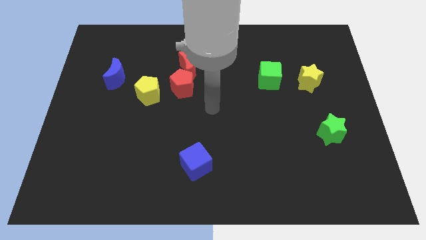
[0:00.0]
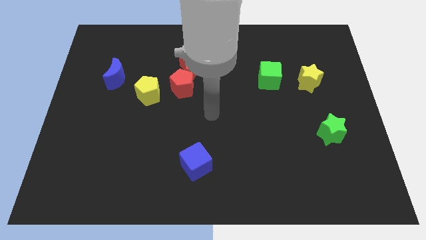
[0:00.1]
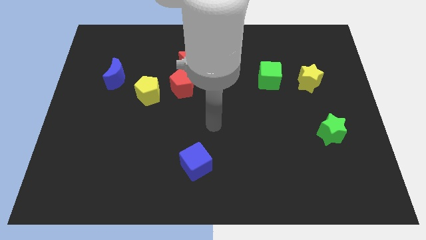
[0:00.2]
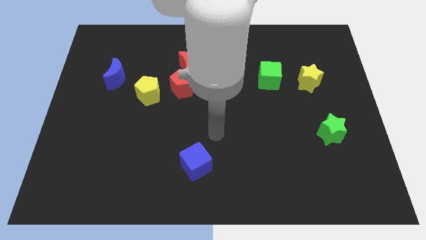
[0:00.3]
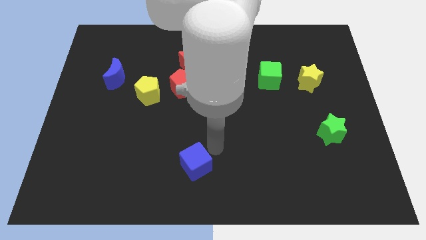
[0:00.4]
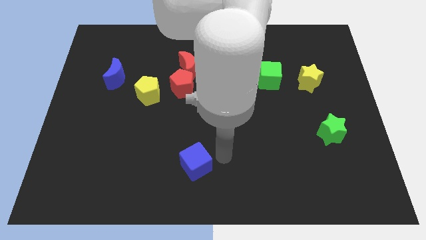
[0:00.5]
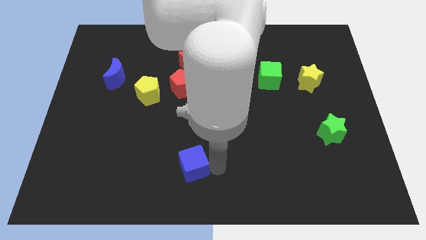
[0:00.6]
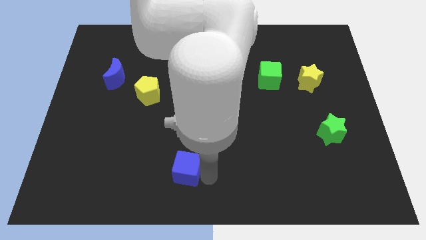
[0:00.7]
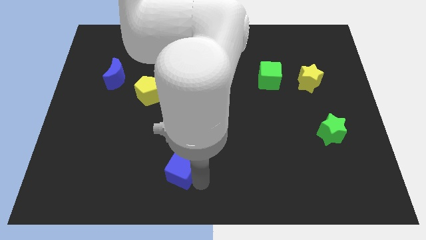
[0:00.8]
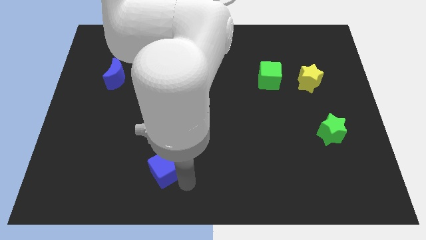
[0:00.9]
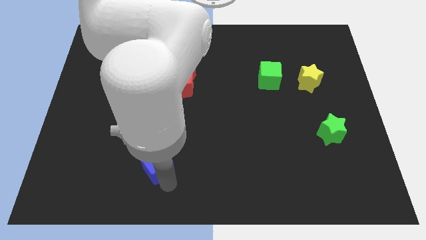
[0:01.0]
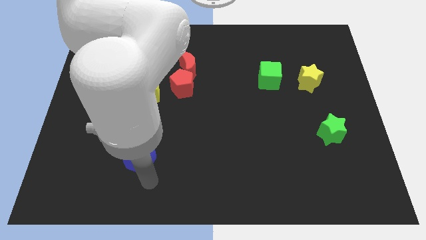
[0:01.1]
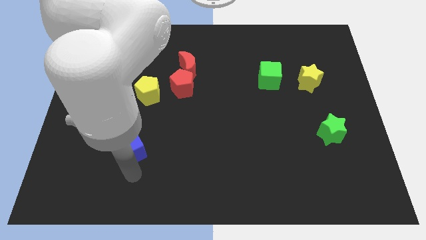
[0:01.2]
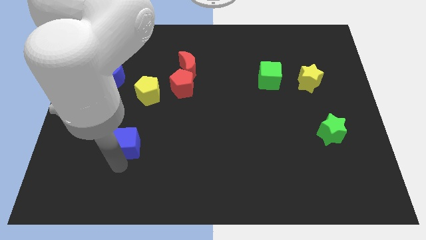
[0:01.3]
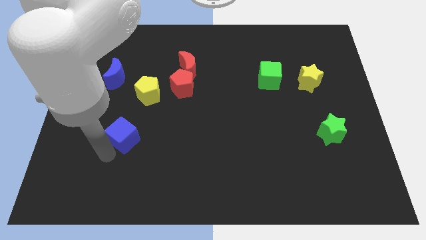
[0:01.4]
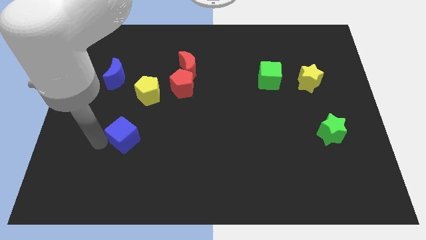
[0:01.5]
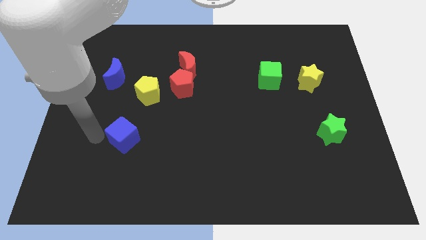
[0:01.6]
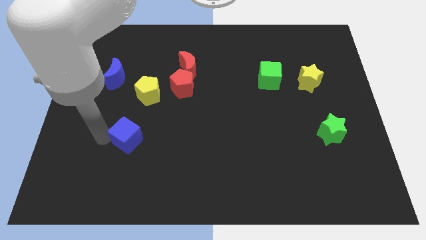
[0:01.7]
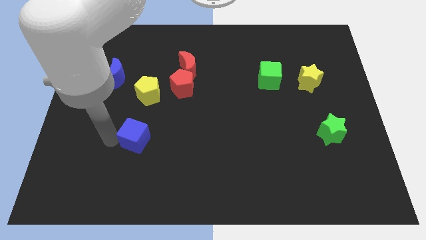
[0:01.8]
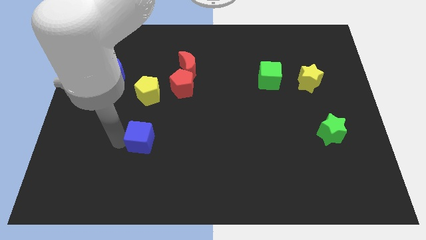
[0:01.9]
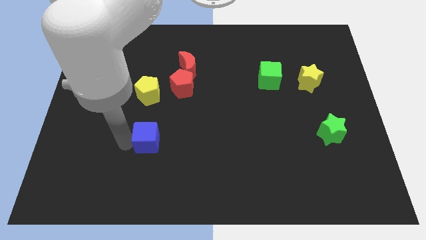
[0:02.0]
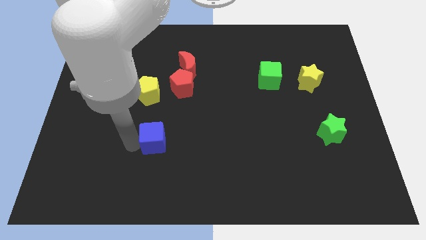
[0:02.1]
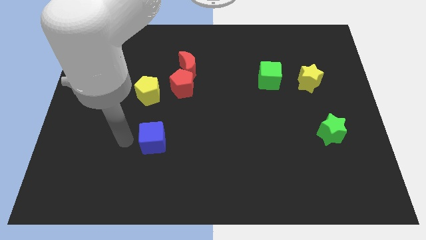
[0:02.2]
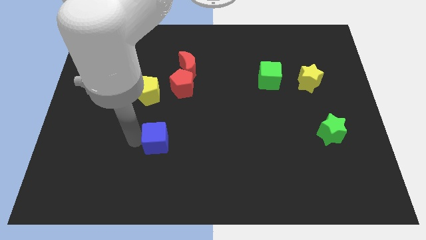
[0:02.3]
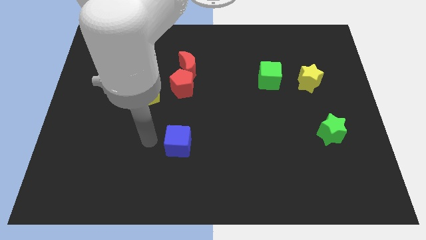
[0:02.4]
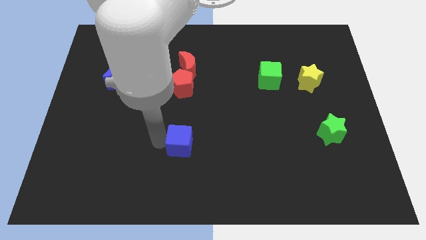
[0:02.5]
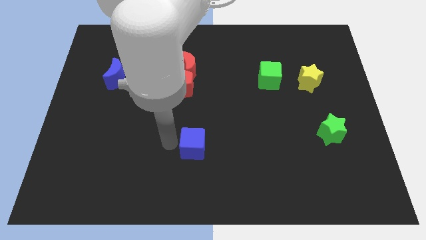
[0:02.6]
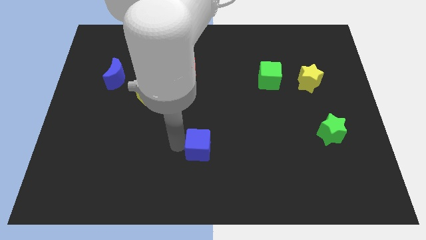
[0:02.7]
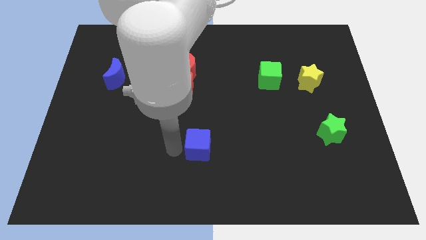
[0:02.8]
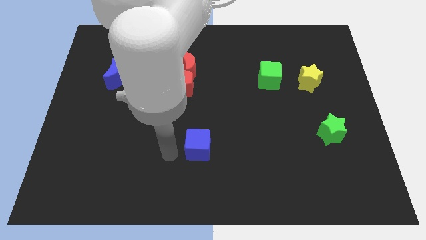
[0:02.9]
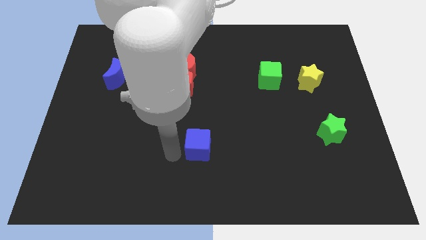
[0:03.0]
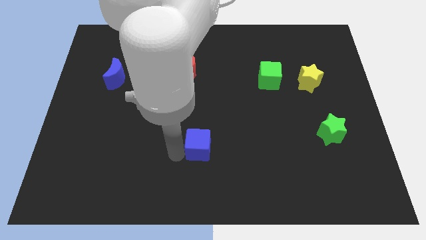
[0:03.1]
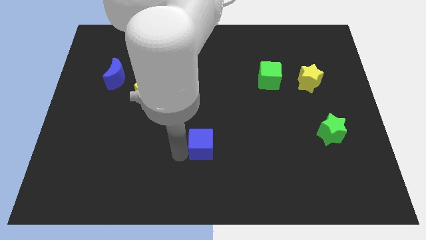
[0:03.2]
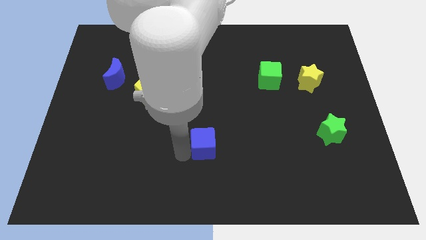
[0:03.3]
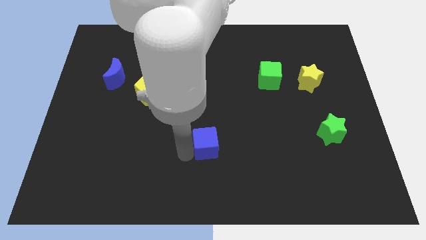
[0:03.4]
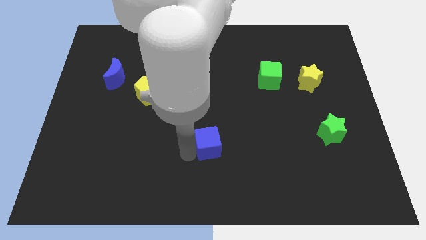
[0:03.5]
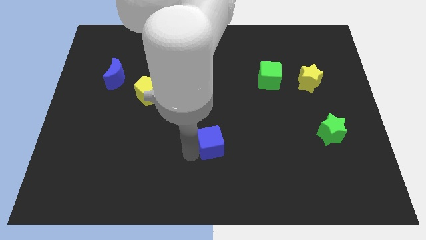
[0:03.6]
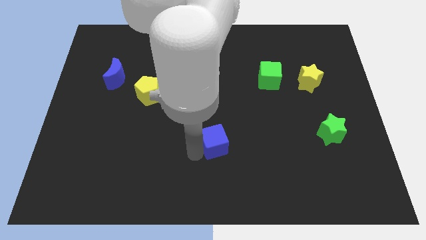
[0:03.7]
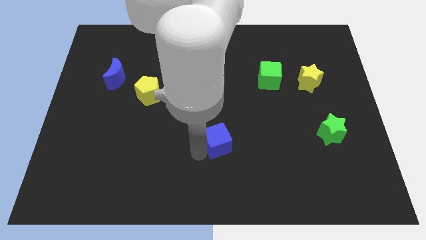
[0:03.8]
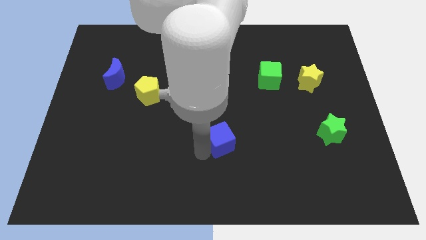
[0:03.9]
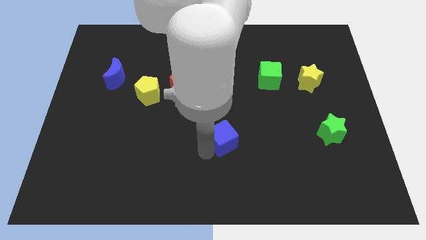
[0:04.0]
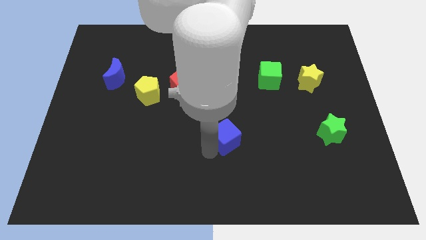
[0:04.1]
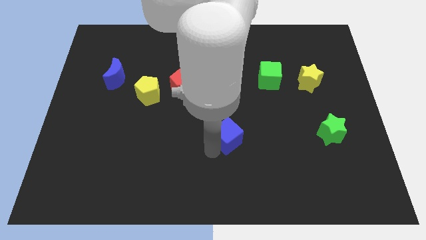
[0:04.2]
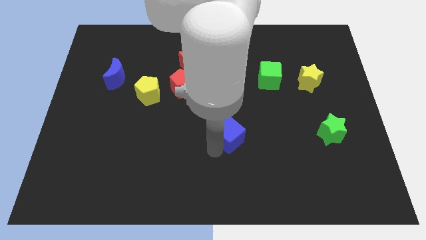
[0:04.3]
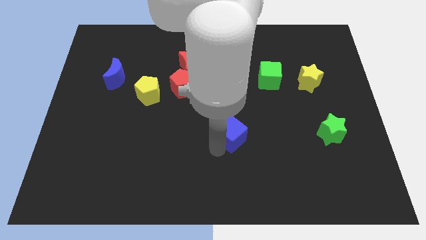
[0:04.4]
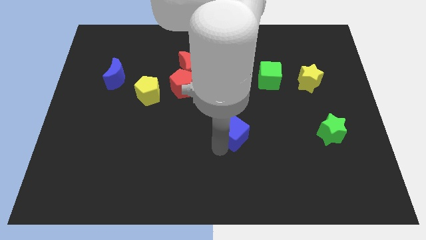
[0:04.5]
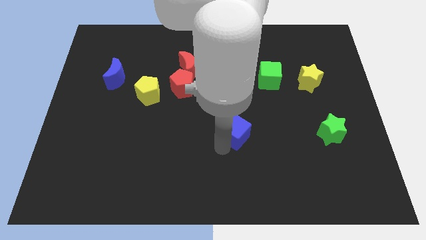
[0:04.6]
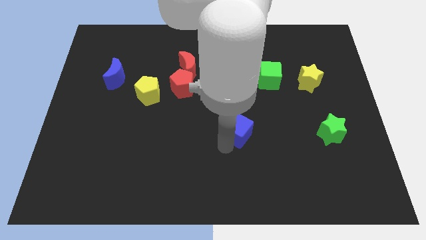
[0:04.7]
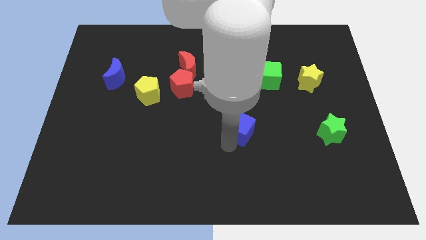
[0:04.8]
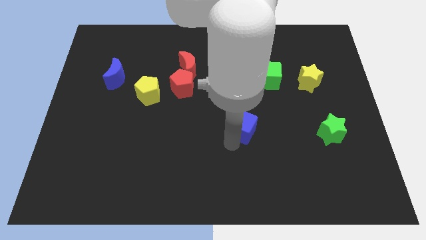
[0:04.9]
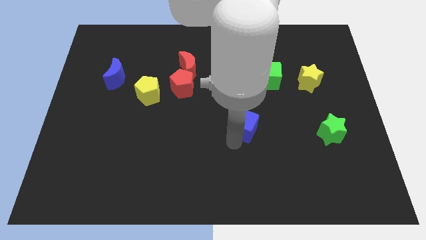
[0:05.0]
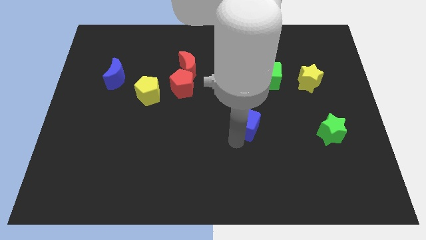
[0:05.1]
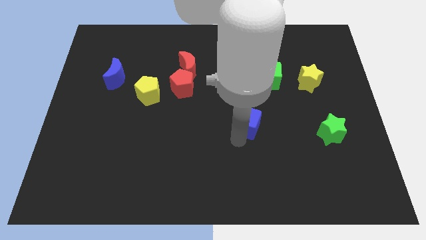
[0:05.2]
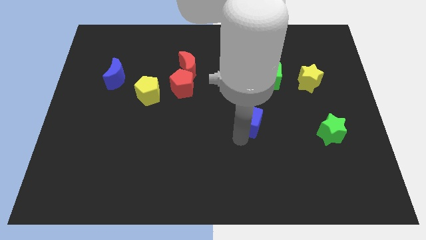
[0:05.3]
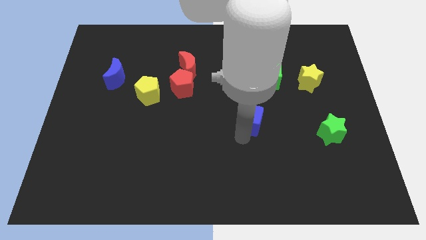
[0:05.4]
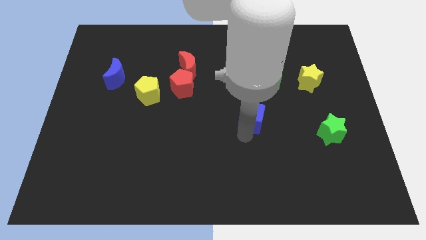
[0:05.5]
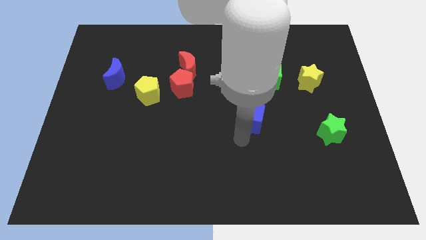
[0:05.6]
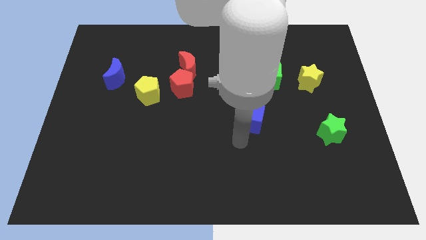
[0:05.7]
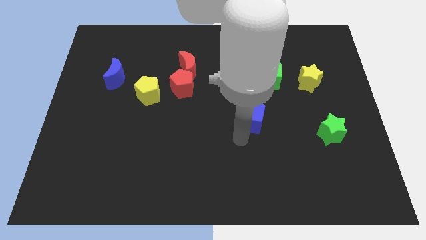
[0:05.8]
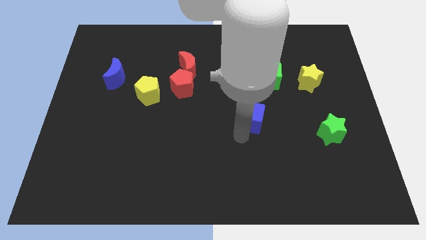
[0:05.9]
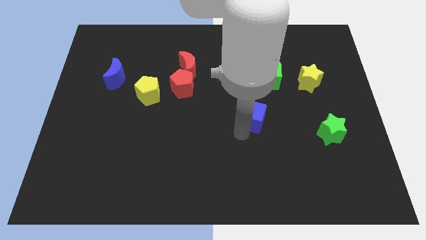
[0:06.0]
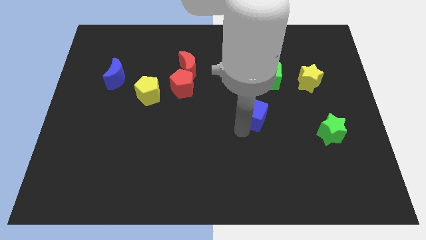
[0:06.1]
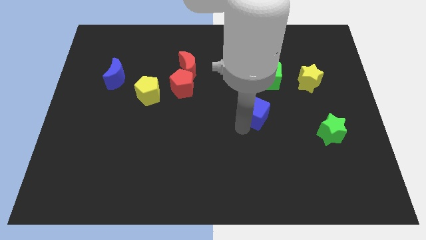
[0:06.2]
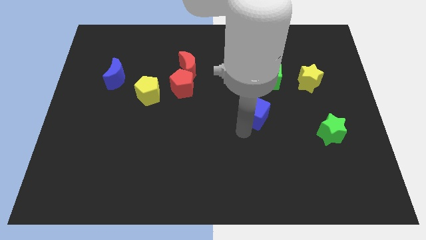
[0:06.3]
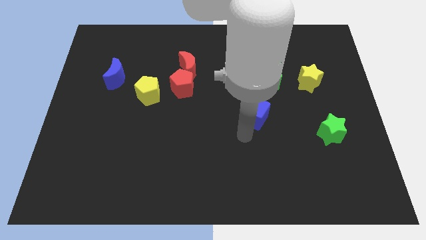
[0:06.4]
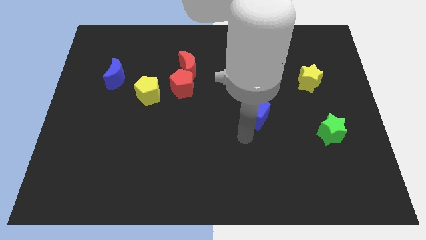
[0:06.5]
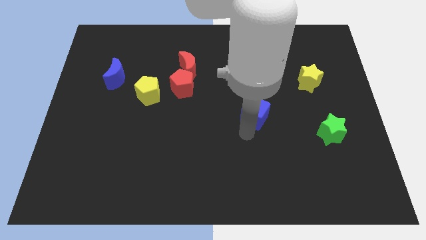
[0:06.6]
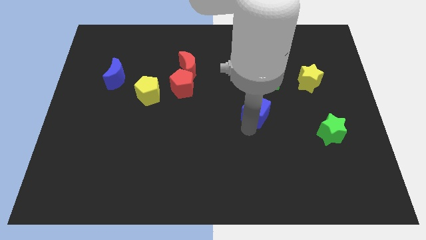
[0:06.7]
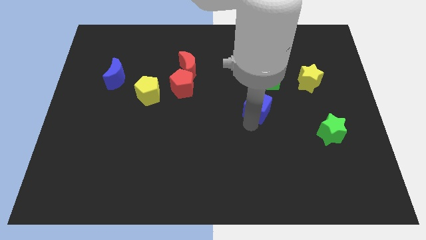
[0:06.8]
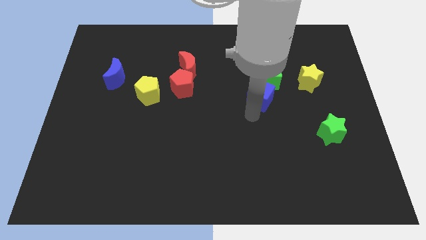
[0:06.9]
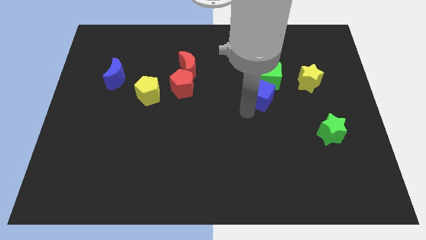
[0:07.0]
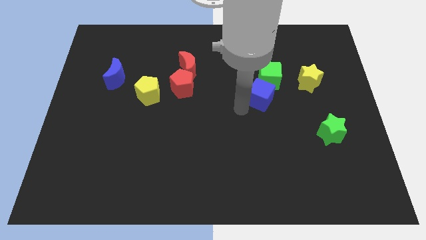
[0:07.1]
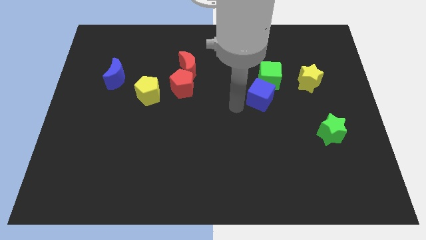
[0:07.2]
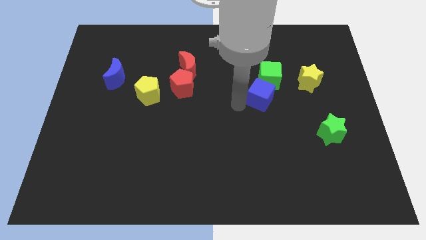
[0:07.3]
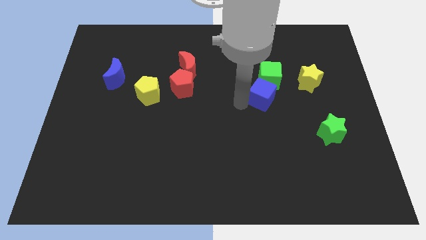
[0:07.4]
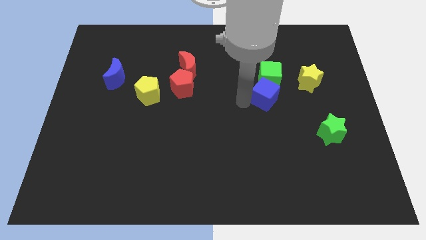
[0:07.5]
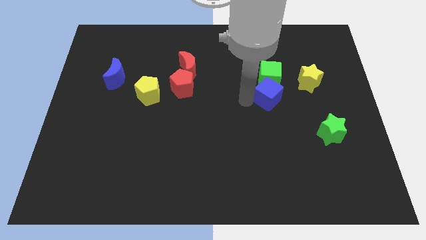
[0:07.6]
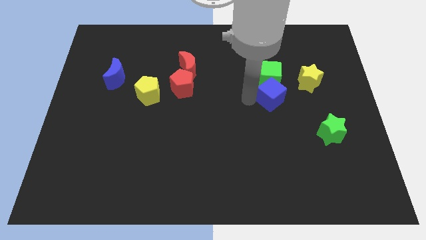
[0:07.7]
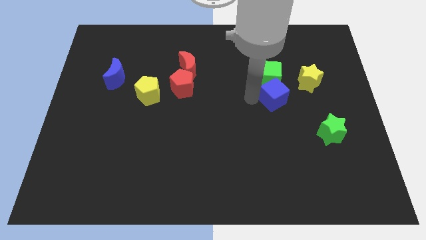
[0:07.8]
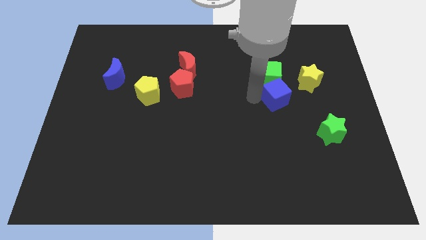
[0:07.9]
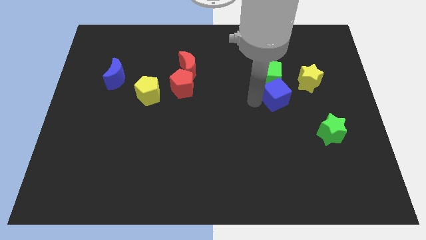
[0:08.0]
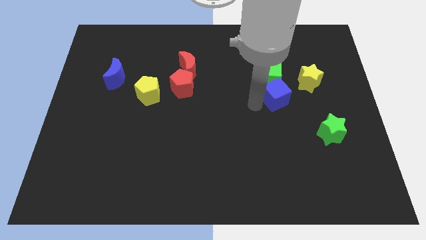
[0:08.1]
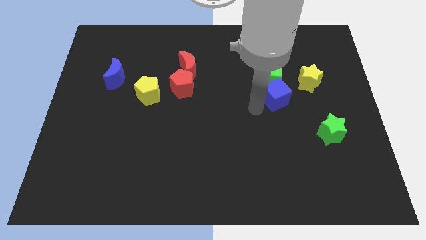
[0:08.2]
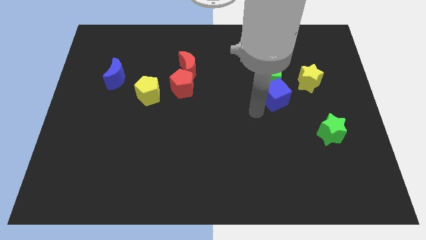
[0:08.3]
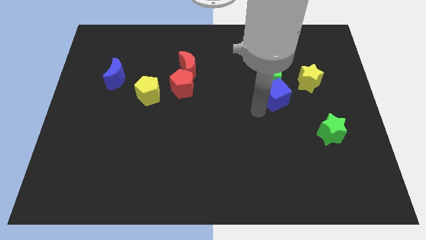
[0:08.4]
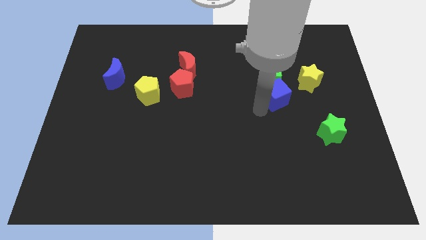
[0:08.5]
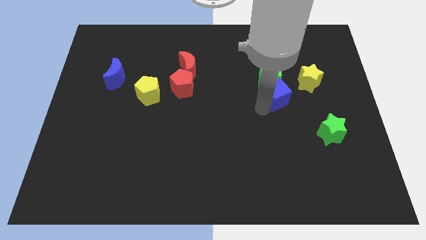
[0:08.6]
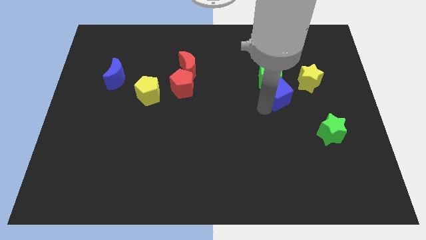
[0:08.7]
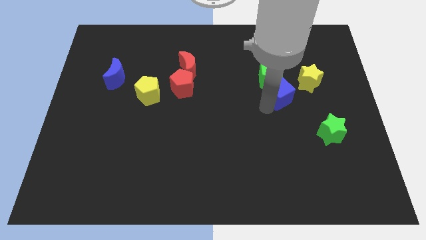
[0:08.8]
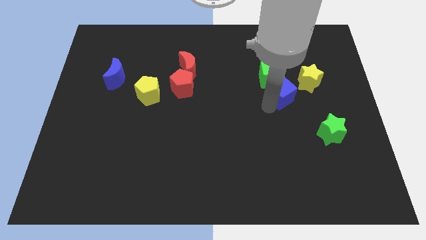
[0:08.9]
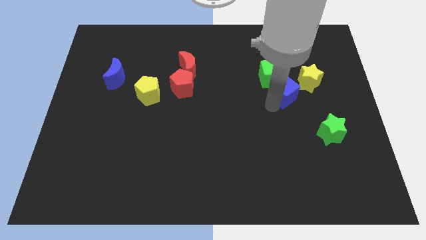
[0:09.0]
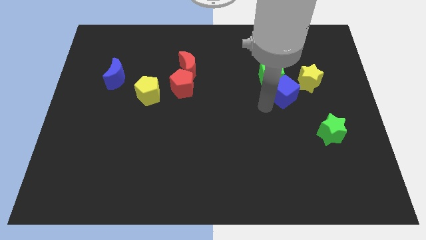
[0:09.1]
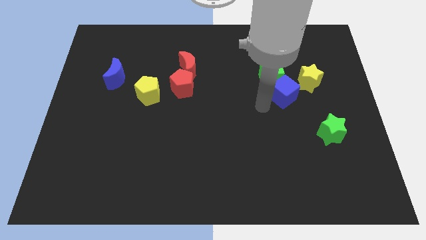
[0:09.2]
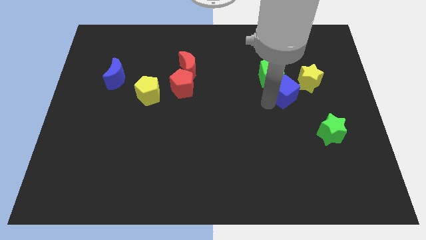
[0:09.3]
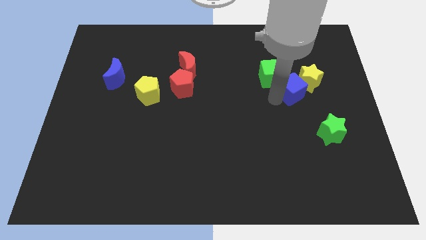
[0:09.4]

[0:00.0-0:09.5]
slide the blue cube next to the yellow star
